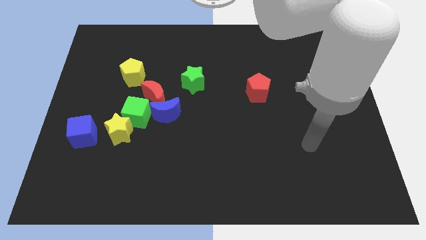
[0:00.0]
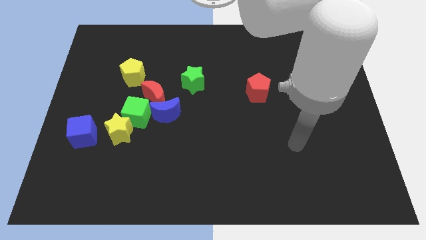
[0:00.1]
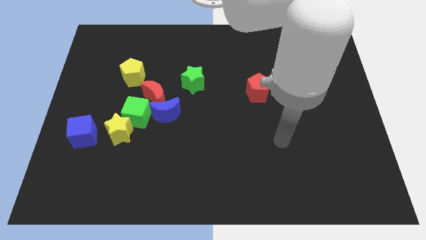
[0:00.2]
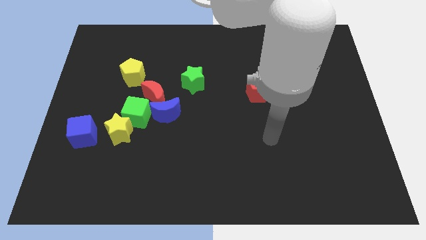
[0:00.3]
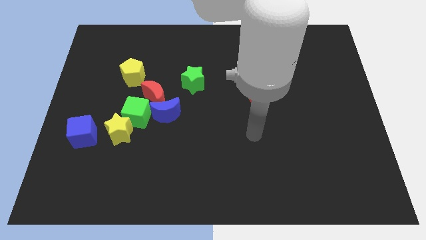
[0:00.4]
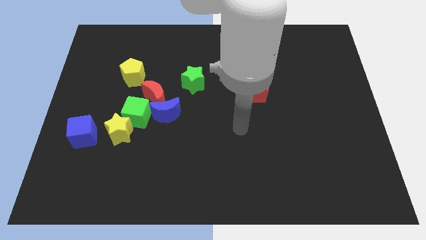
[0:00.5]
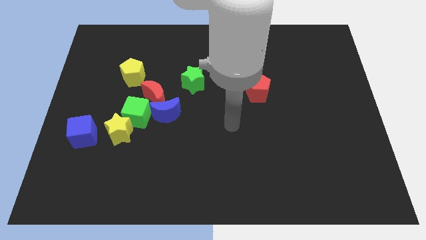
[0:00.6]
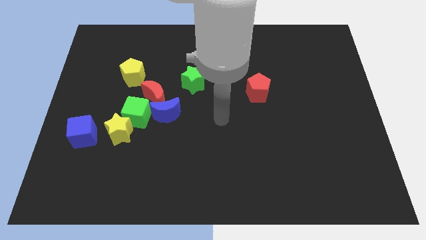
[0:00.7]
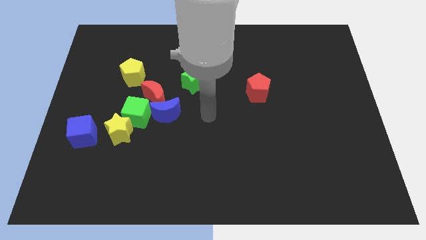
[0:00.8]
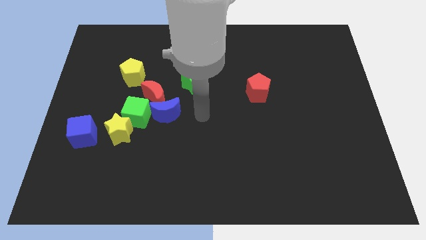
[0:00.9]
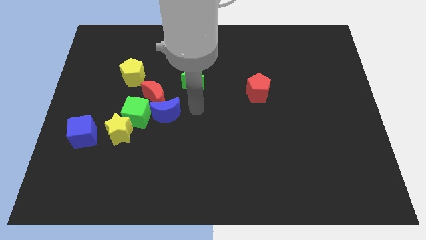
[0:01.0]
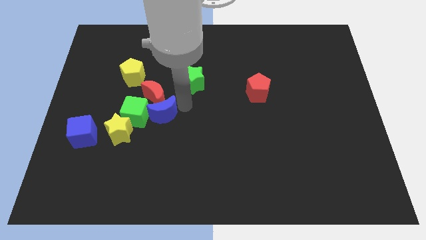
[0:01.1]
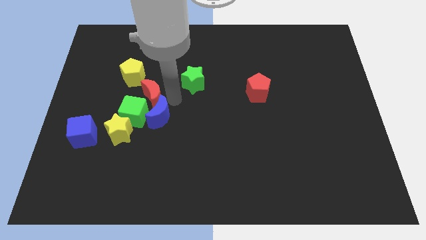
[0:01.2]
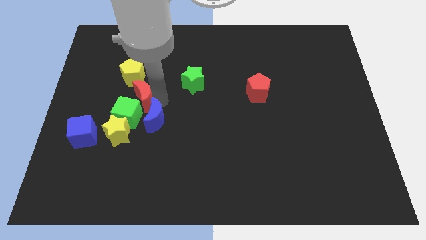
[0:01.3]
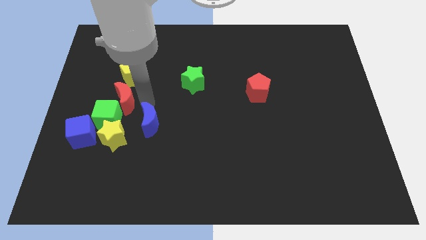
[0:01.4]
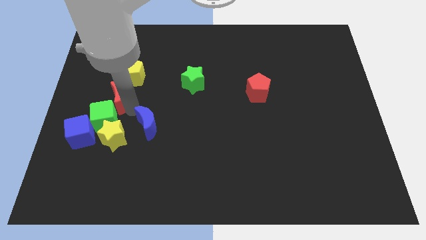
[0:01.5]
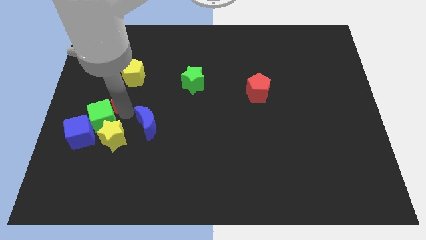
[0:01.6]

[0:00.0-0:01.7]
move the blue moon away from the red moon and green cube

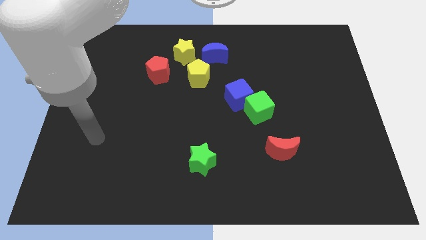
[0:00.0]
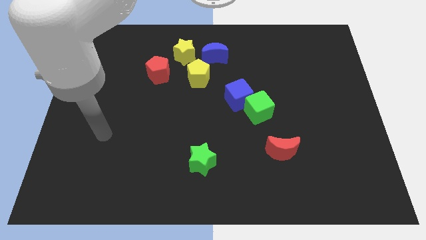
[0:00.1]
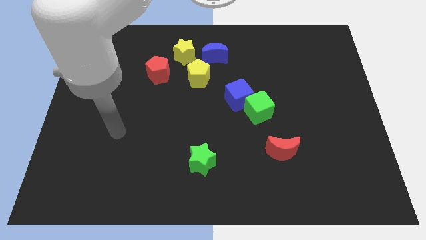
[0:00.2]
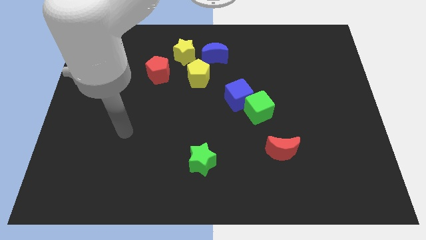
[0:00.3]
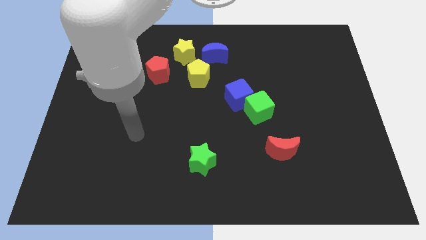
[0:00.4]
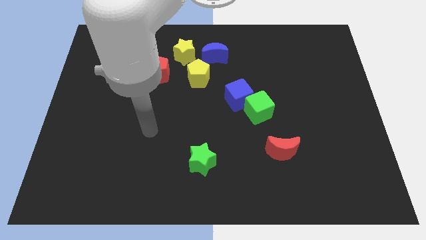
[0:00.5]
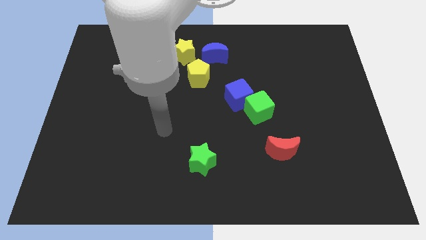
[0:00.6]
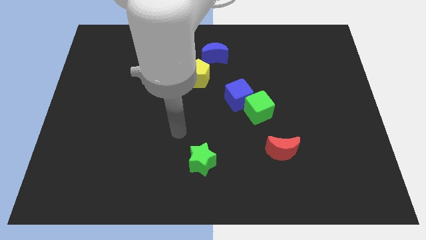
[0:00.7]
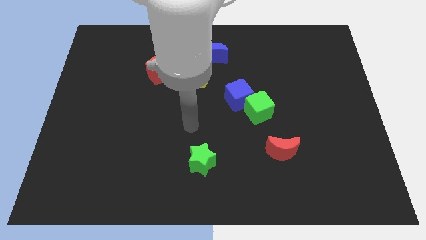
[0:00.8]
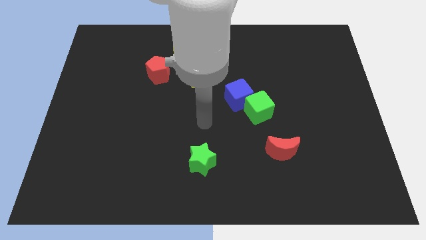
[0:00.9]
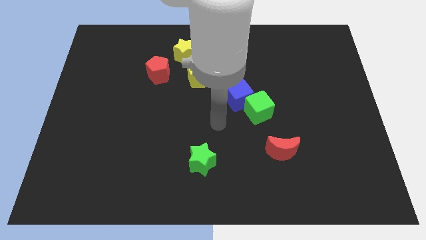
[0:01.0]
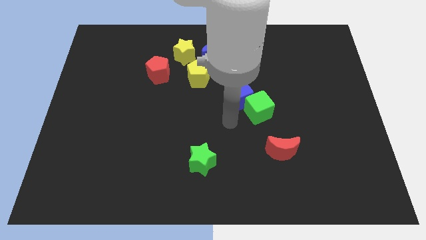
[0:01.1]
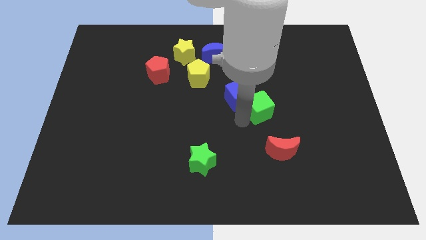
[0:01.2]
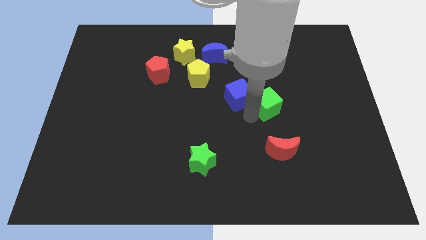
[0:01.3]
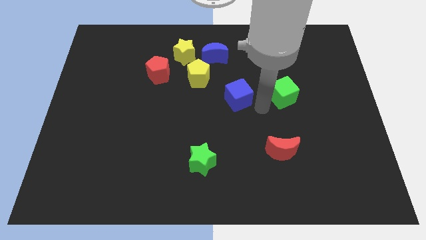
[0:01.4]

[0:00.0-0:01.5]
pull the blue cube apart from the green cube

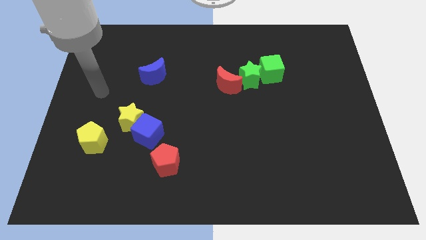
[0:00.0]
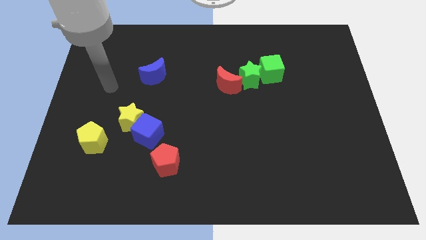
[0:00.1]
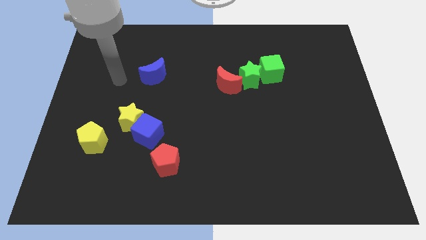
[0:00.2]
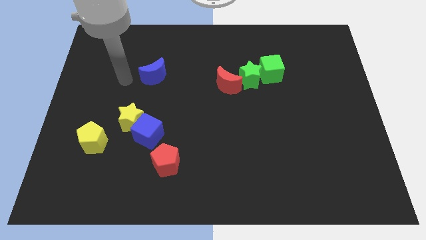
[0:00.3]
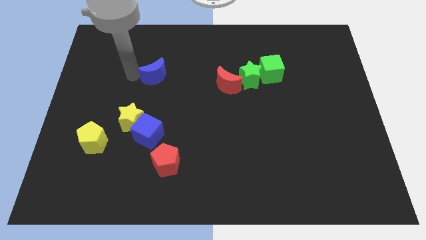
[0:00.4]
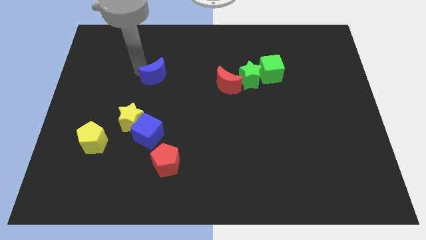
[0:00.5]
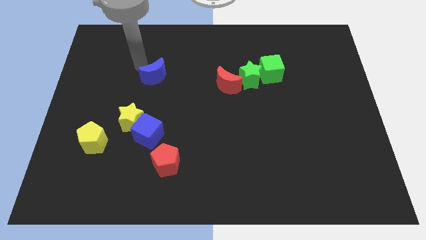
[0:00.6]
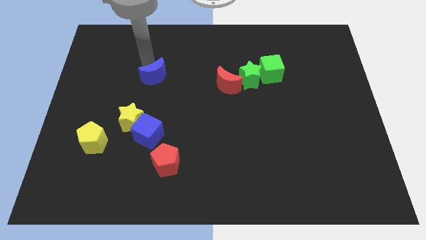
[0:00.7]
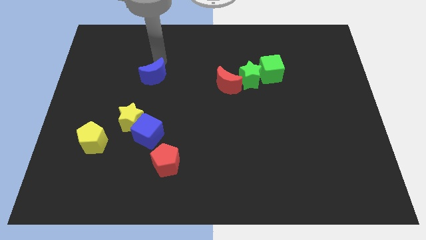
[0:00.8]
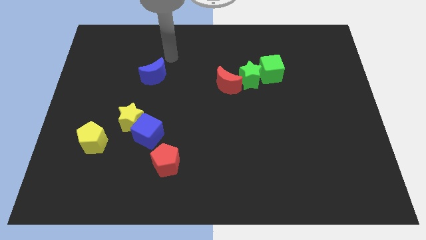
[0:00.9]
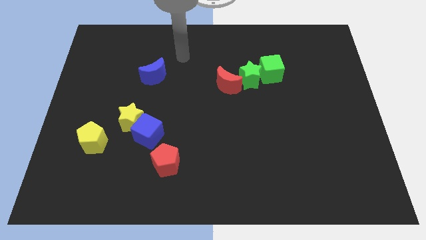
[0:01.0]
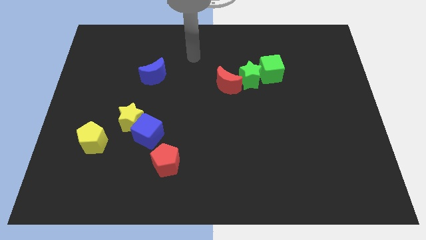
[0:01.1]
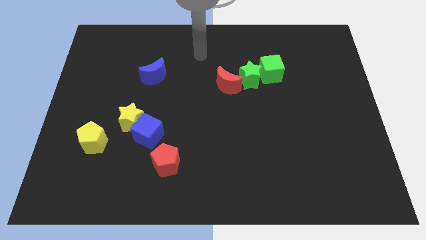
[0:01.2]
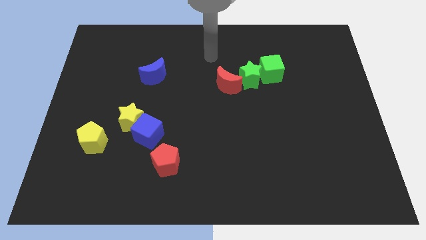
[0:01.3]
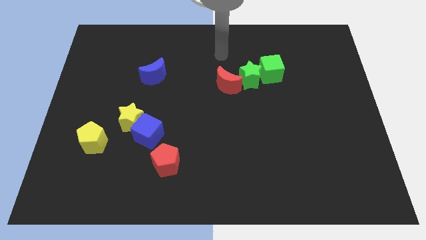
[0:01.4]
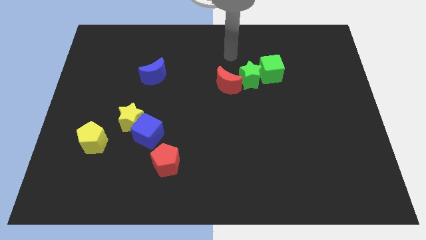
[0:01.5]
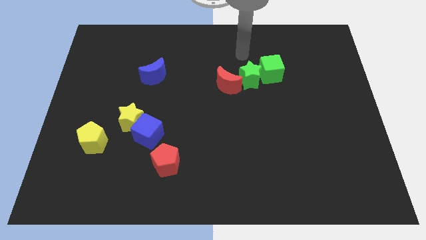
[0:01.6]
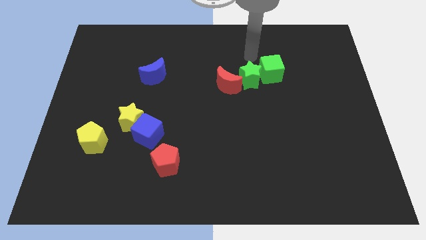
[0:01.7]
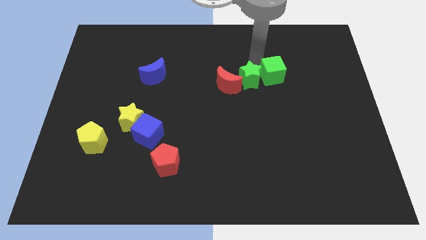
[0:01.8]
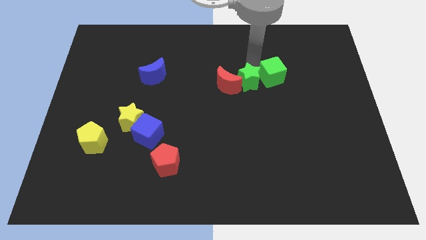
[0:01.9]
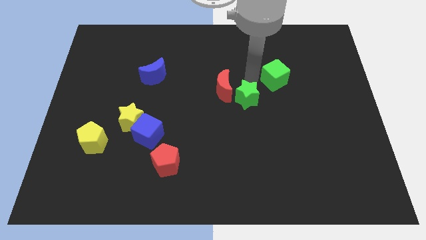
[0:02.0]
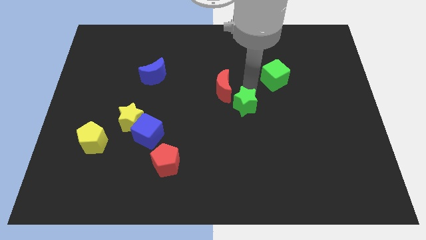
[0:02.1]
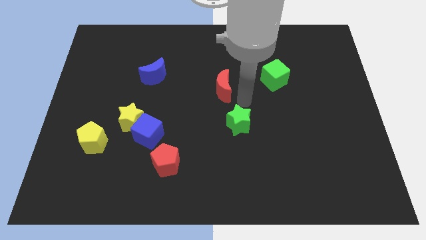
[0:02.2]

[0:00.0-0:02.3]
move the red moon away from the green star

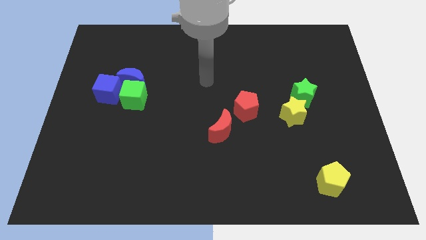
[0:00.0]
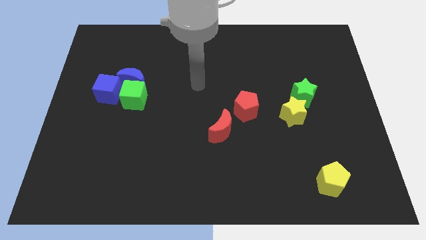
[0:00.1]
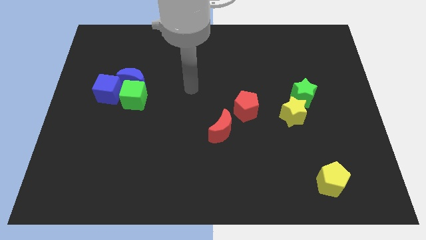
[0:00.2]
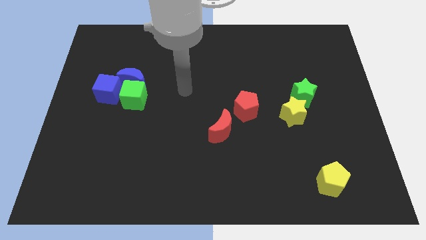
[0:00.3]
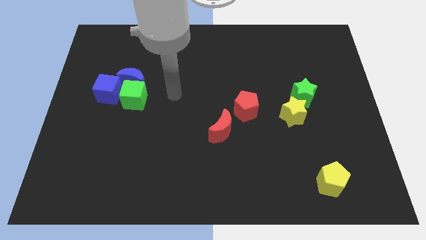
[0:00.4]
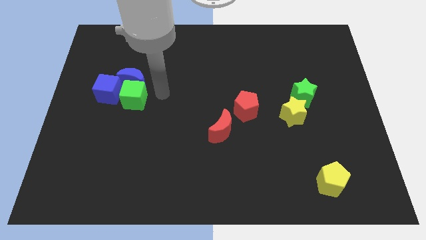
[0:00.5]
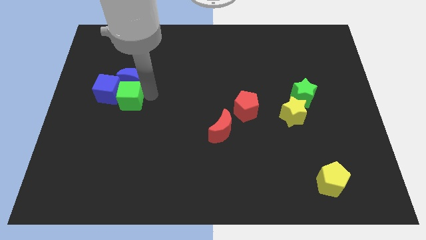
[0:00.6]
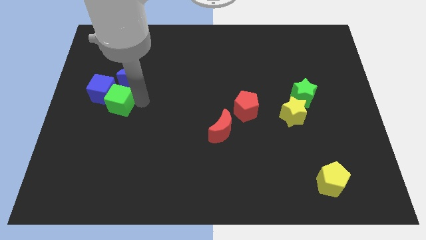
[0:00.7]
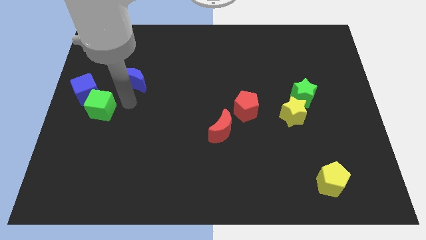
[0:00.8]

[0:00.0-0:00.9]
pull the blue moon apart from the green cube and blue cube

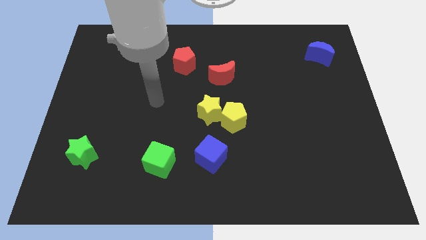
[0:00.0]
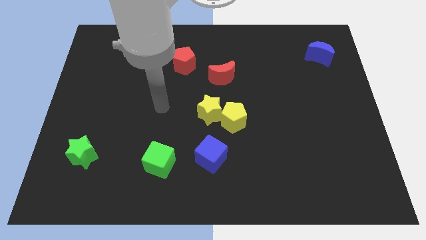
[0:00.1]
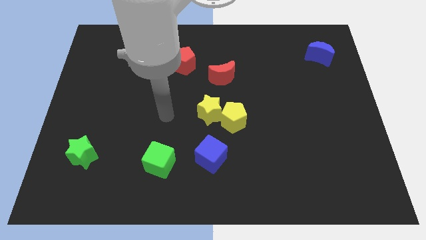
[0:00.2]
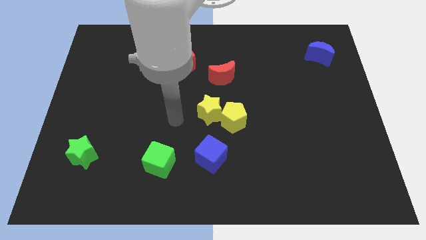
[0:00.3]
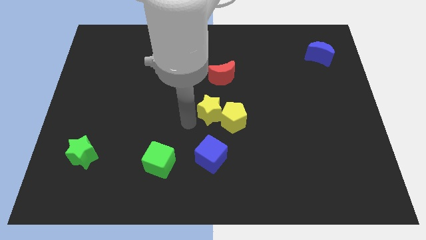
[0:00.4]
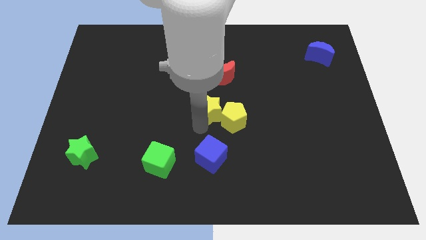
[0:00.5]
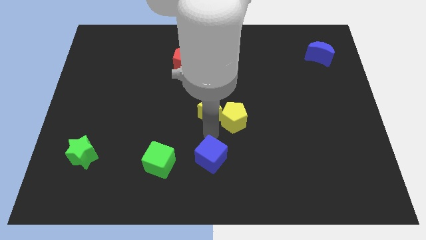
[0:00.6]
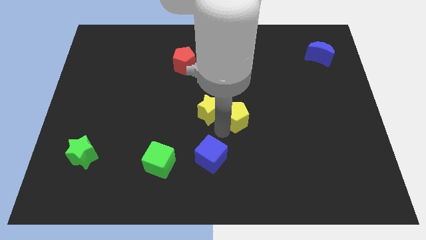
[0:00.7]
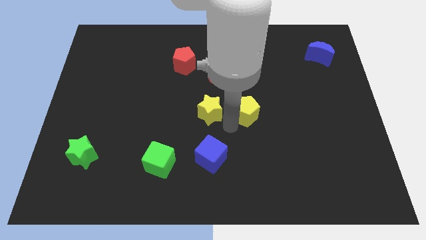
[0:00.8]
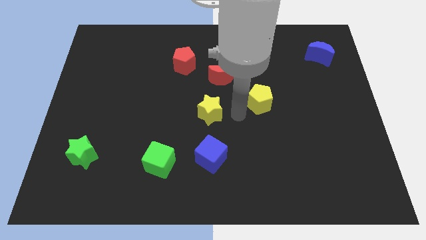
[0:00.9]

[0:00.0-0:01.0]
separate the yellow star from the yellow pentagon

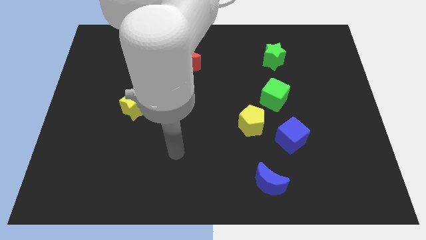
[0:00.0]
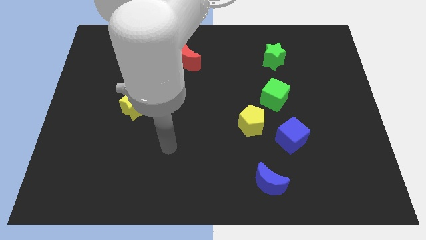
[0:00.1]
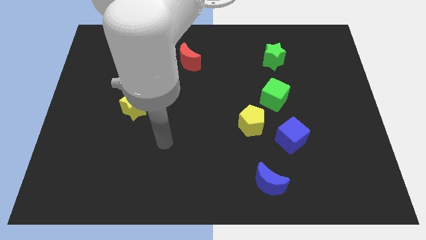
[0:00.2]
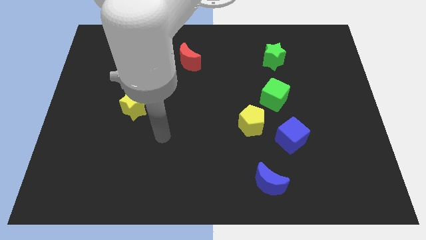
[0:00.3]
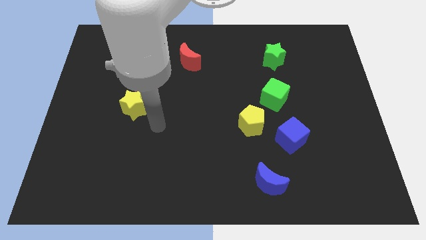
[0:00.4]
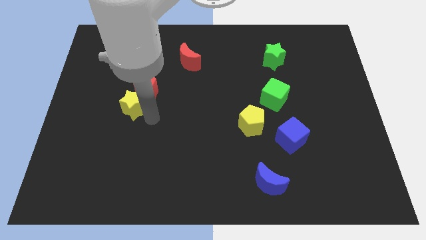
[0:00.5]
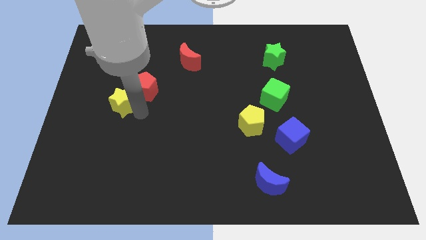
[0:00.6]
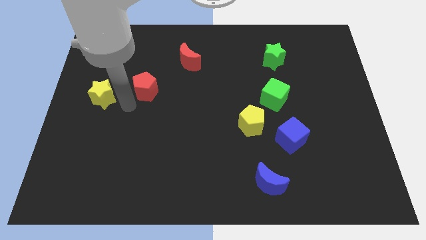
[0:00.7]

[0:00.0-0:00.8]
pull the red pentagon apart from the yellow star

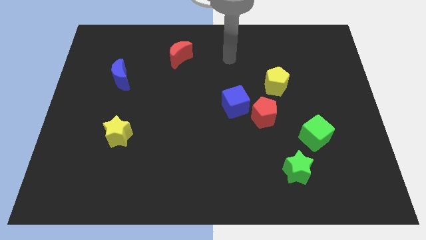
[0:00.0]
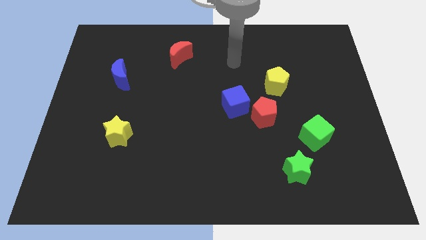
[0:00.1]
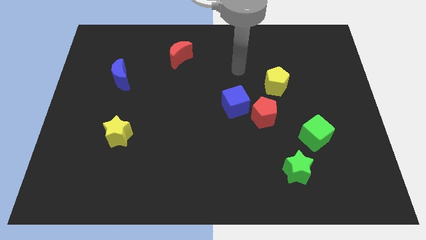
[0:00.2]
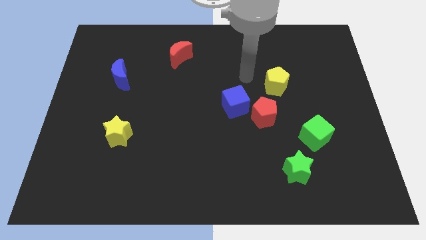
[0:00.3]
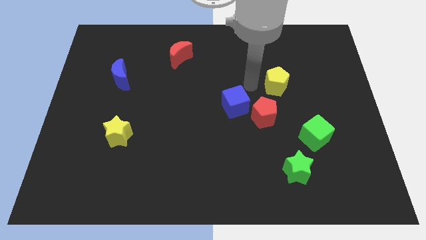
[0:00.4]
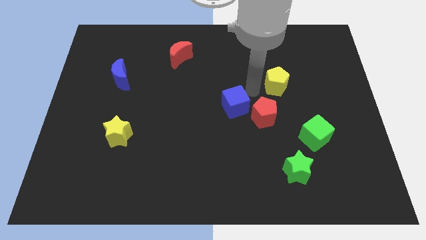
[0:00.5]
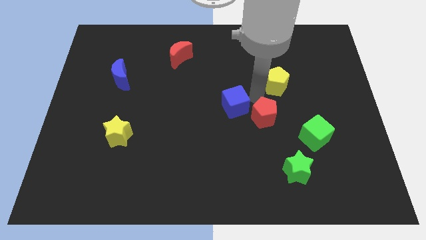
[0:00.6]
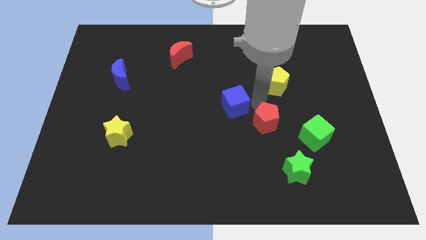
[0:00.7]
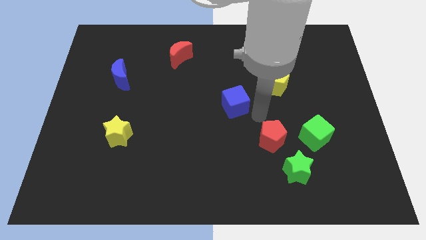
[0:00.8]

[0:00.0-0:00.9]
separate the blue cube from the red pentagon
